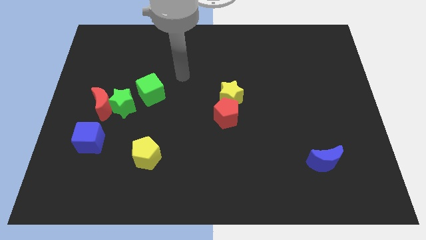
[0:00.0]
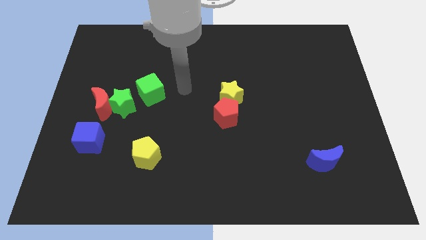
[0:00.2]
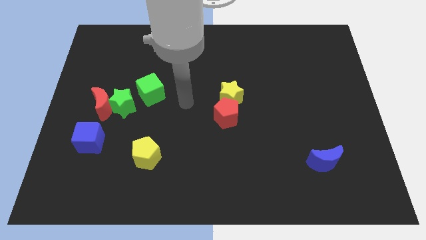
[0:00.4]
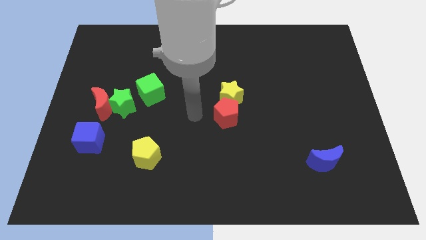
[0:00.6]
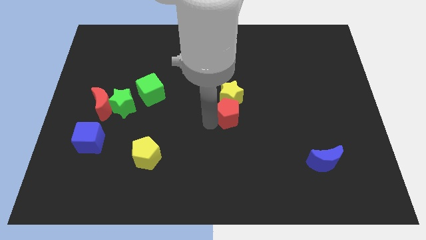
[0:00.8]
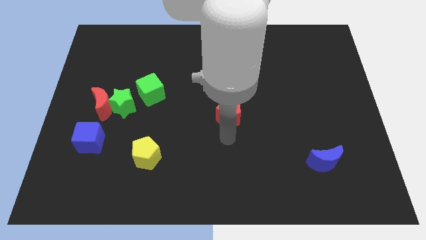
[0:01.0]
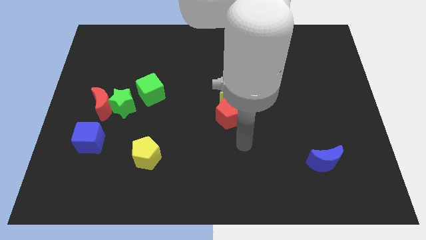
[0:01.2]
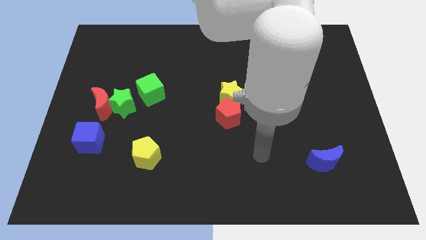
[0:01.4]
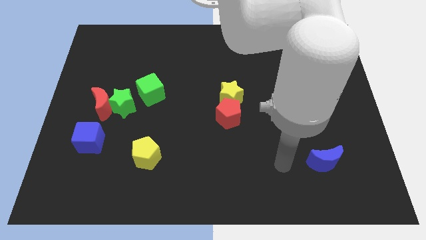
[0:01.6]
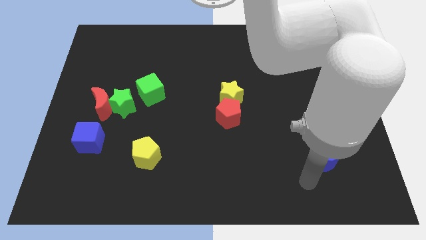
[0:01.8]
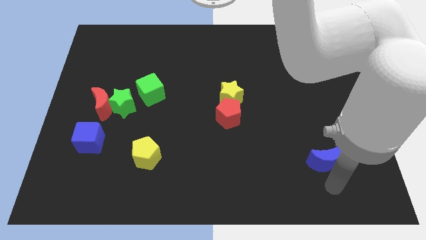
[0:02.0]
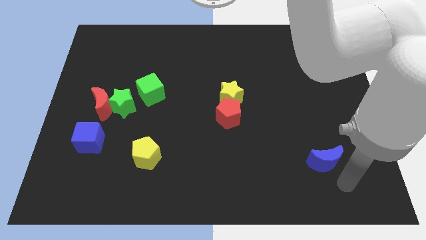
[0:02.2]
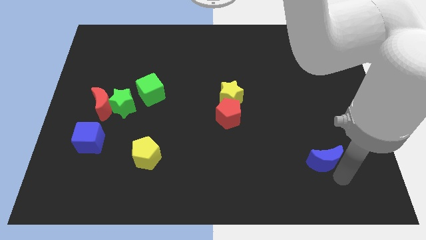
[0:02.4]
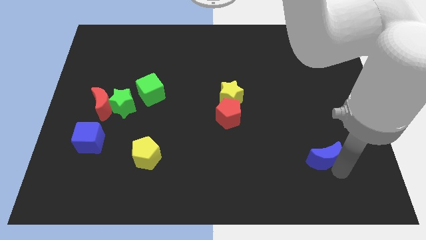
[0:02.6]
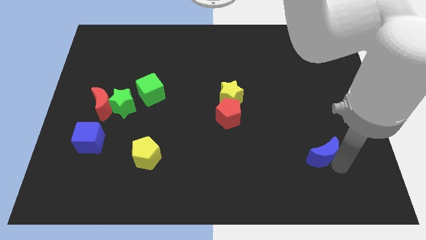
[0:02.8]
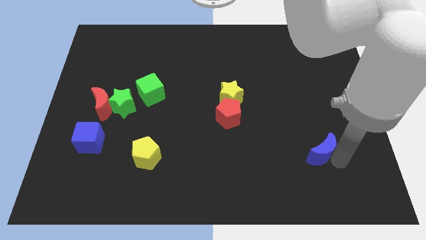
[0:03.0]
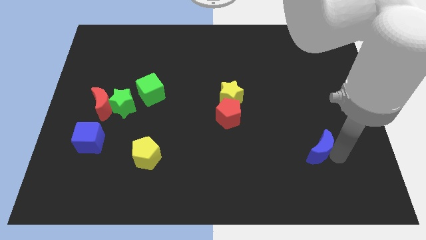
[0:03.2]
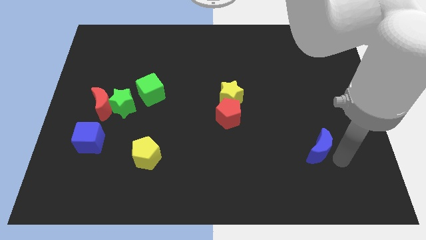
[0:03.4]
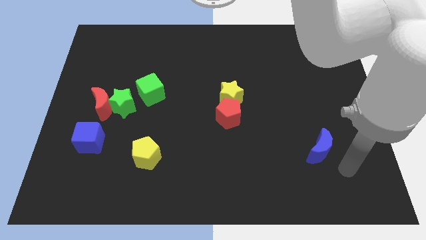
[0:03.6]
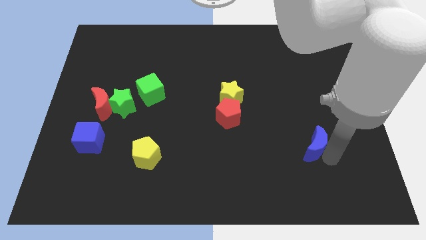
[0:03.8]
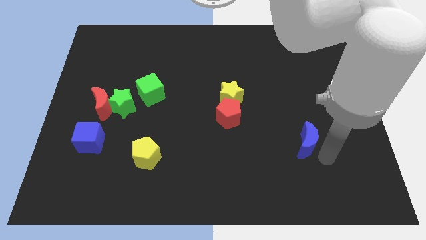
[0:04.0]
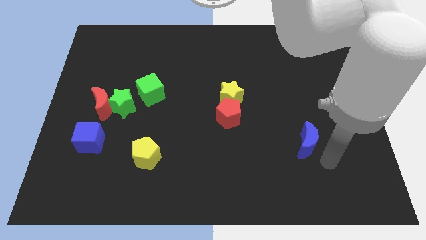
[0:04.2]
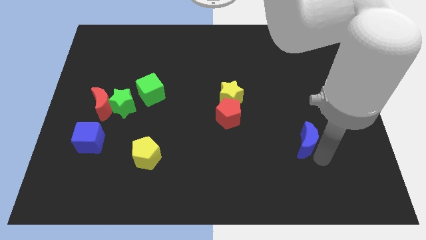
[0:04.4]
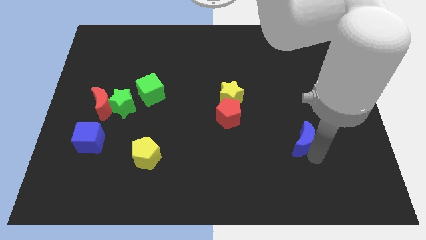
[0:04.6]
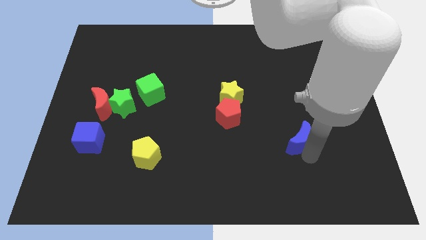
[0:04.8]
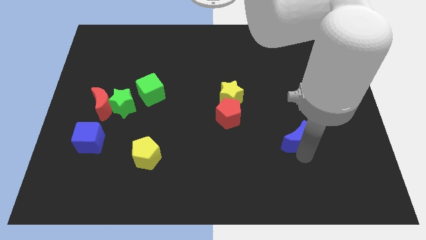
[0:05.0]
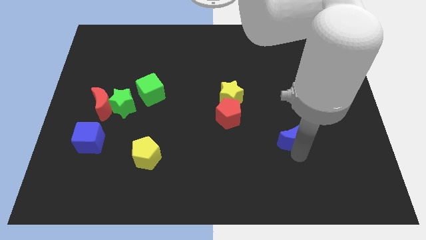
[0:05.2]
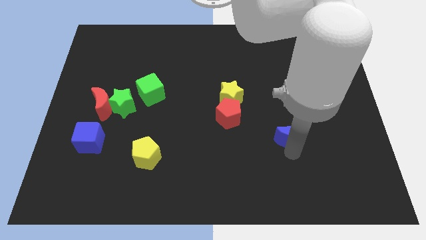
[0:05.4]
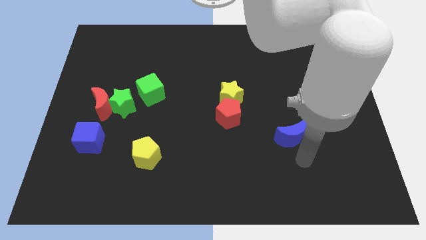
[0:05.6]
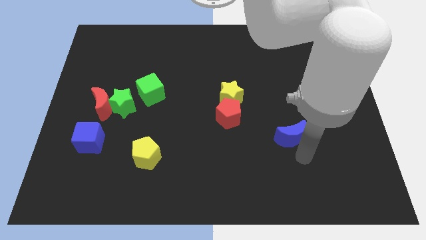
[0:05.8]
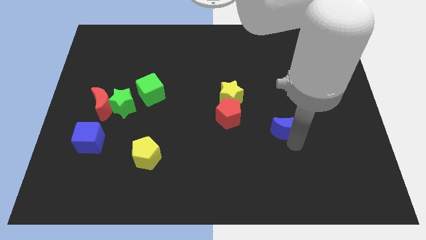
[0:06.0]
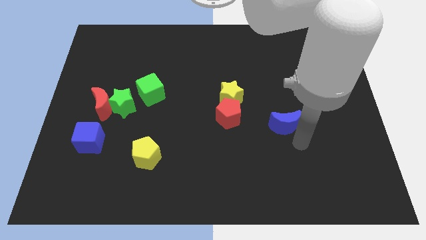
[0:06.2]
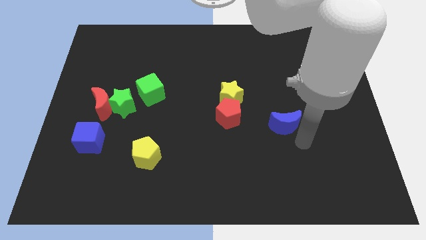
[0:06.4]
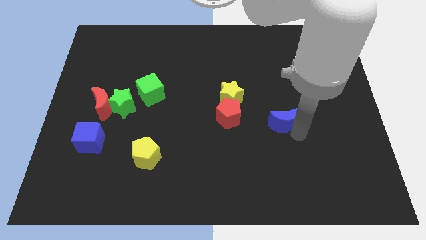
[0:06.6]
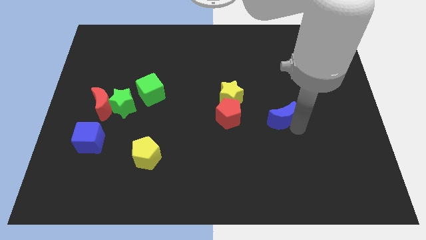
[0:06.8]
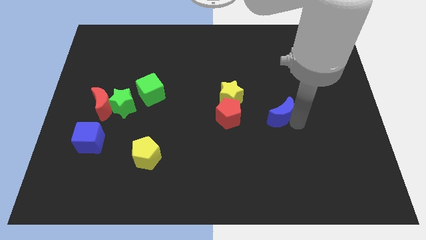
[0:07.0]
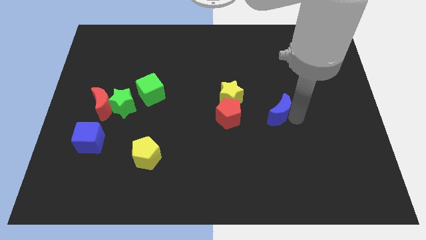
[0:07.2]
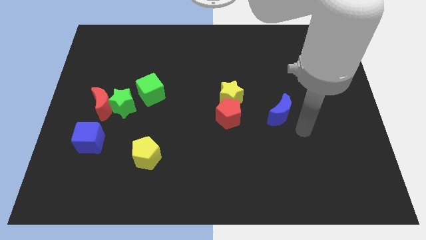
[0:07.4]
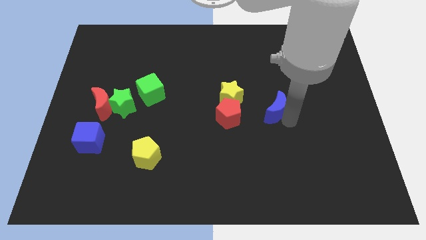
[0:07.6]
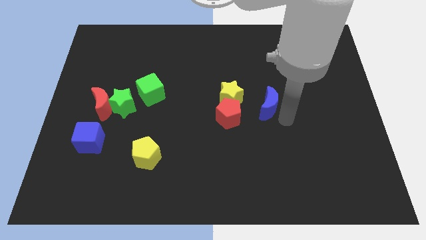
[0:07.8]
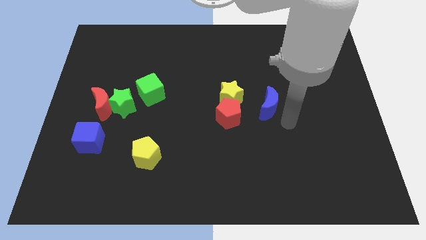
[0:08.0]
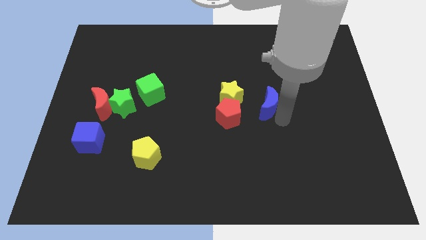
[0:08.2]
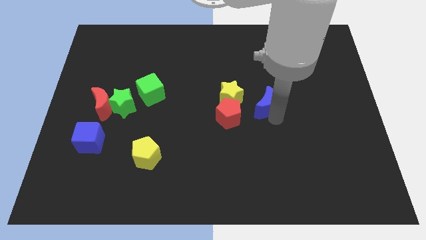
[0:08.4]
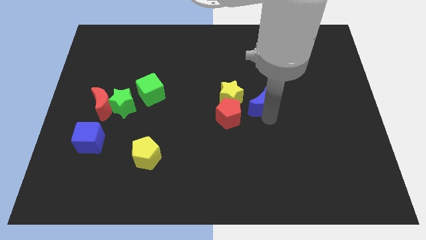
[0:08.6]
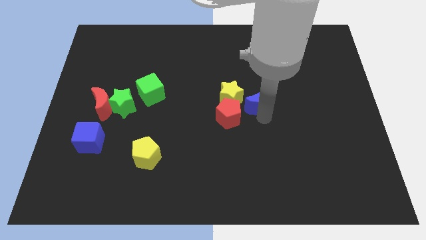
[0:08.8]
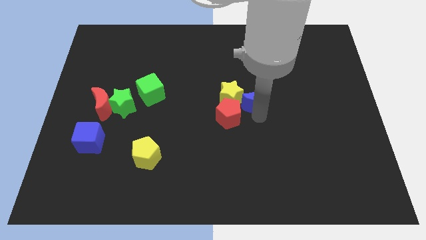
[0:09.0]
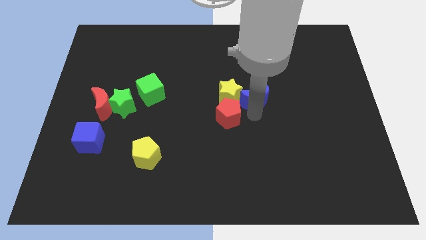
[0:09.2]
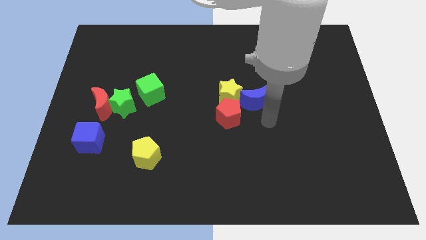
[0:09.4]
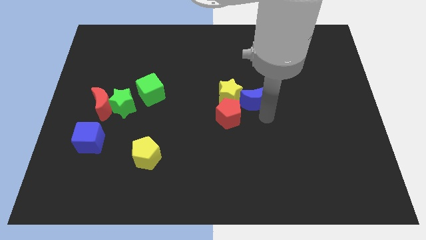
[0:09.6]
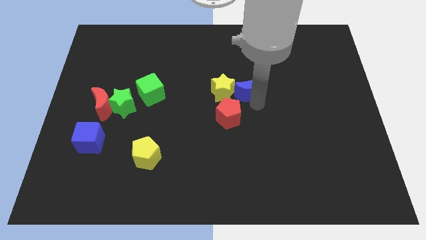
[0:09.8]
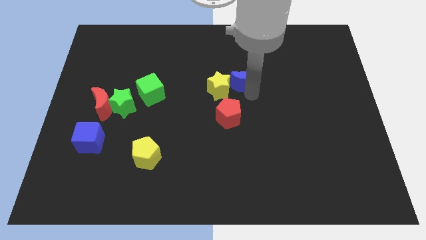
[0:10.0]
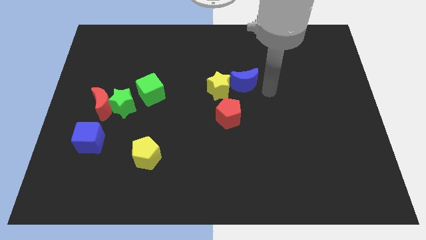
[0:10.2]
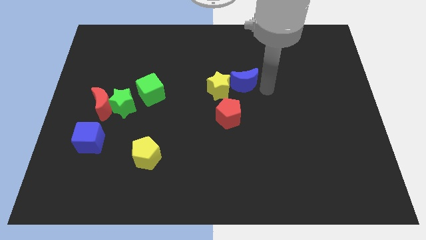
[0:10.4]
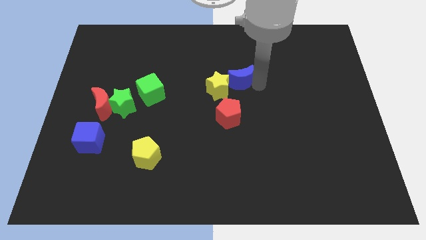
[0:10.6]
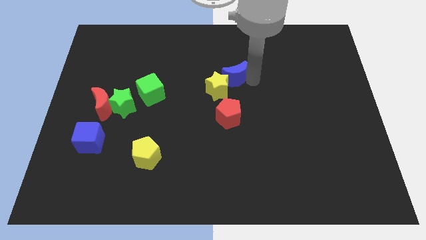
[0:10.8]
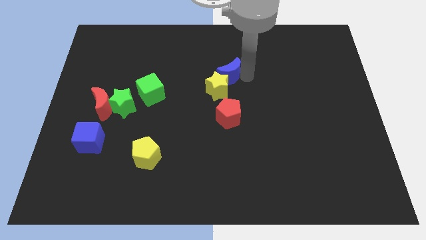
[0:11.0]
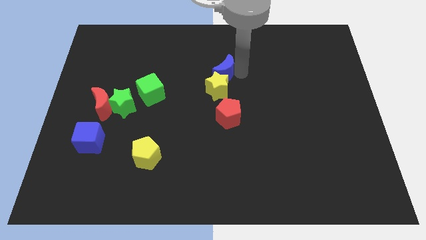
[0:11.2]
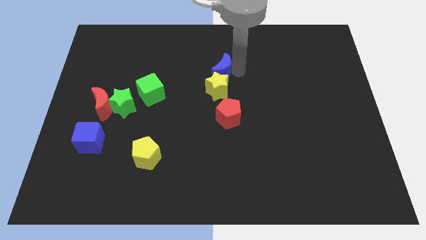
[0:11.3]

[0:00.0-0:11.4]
push the blue moon to the top left side of the yellow star

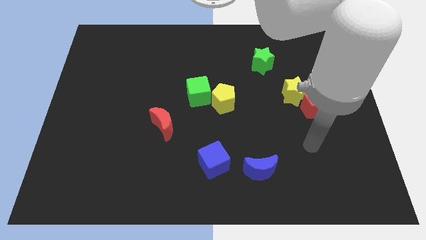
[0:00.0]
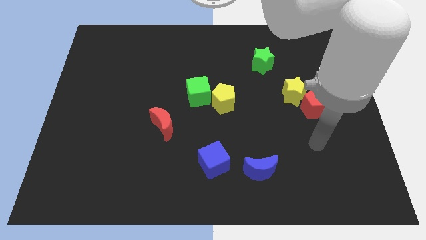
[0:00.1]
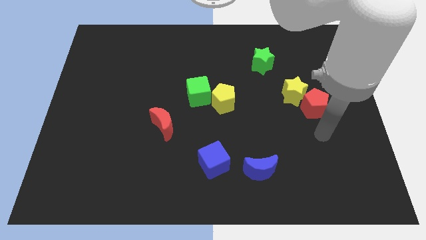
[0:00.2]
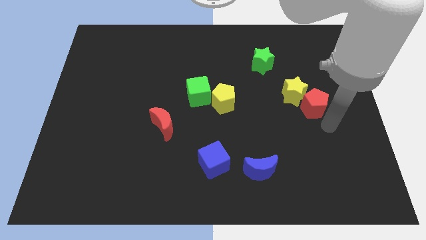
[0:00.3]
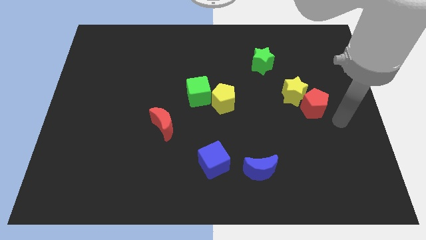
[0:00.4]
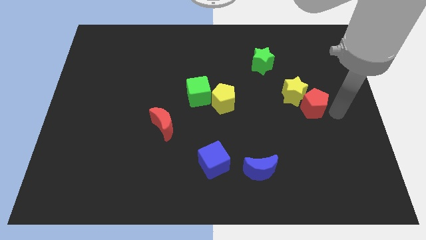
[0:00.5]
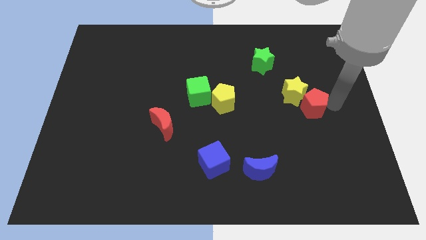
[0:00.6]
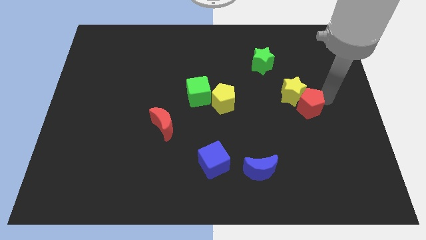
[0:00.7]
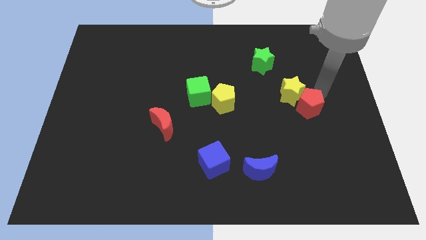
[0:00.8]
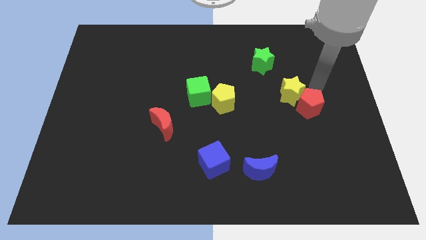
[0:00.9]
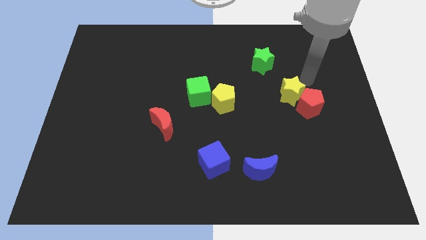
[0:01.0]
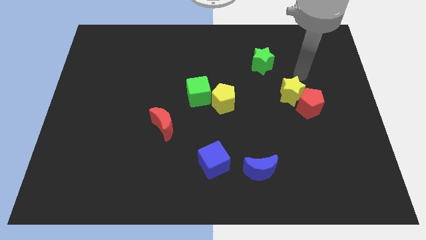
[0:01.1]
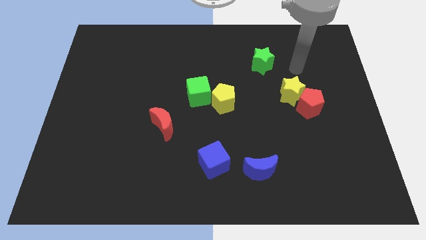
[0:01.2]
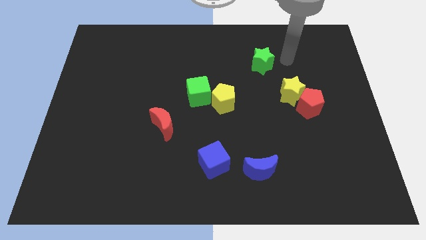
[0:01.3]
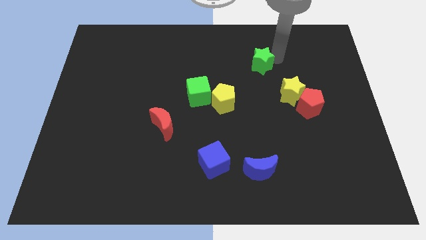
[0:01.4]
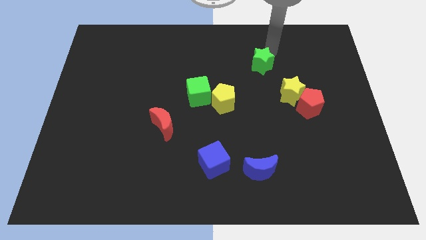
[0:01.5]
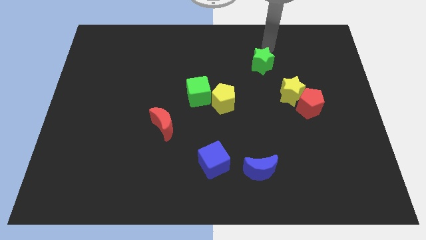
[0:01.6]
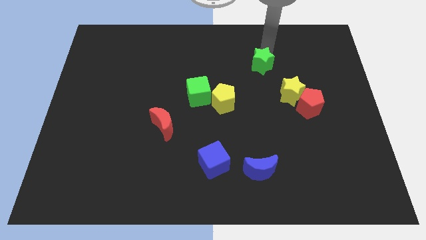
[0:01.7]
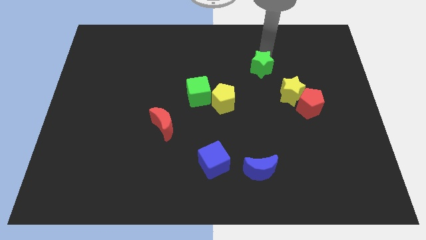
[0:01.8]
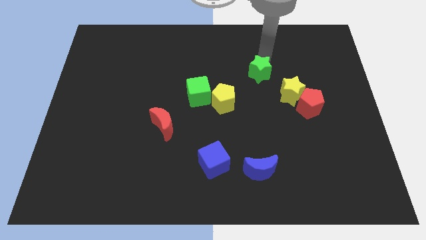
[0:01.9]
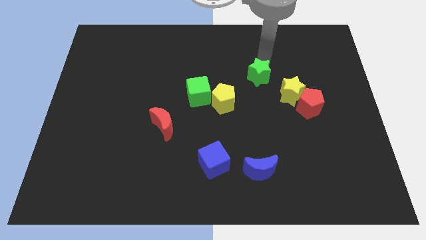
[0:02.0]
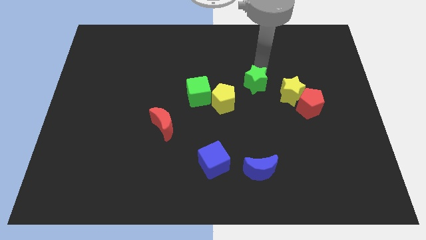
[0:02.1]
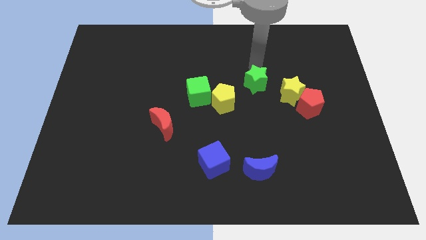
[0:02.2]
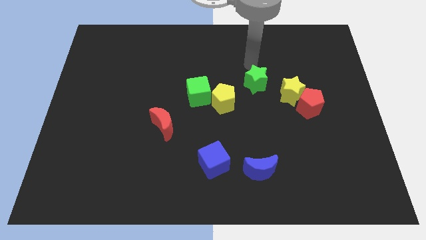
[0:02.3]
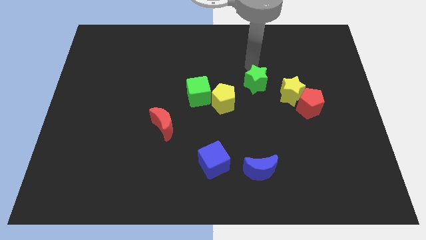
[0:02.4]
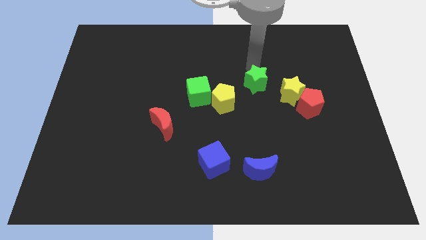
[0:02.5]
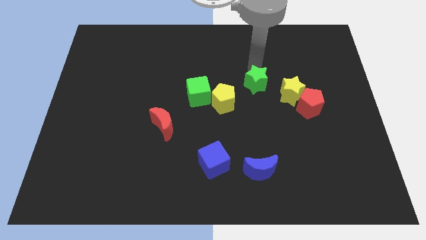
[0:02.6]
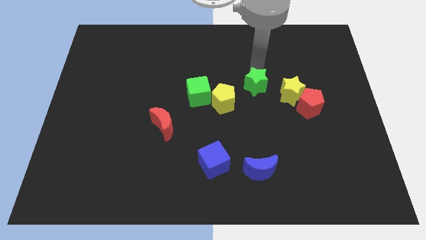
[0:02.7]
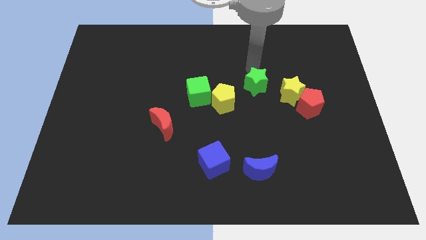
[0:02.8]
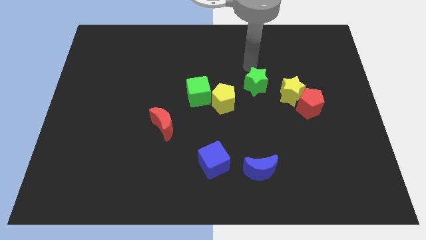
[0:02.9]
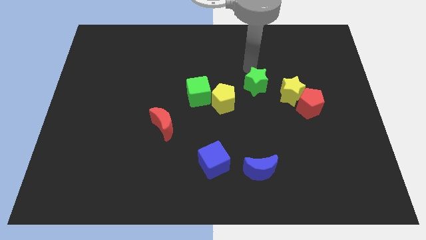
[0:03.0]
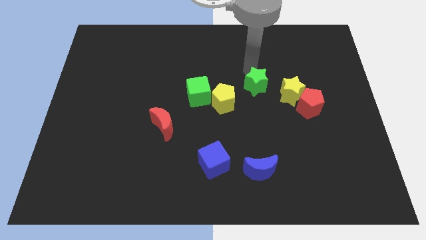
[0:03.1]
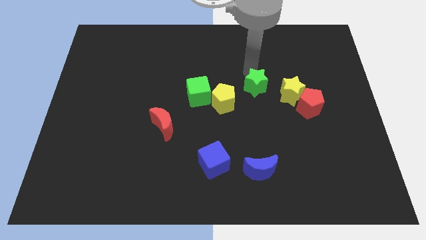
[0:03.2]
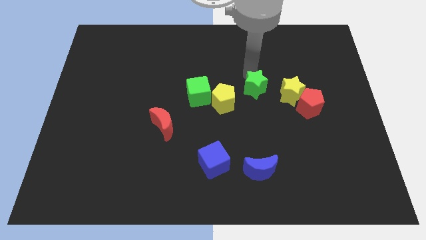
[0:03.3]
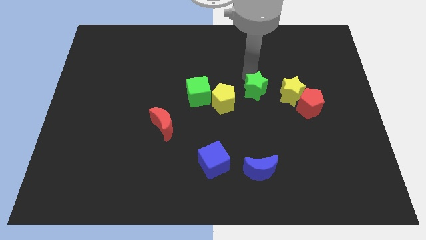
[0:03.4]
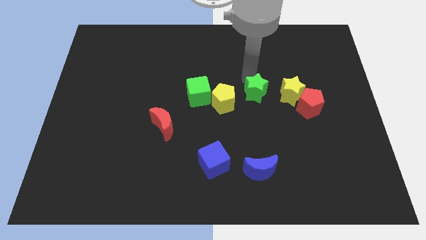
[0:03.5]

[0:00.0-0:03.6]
move the green star just left of the red pentagon
